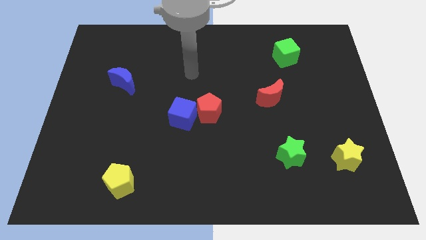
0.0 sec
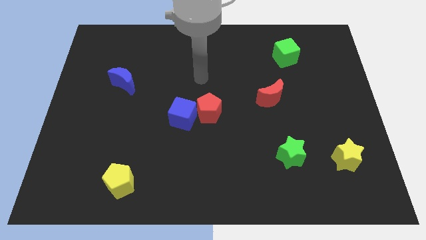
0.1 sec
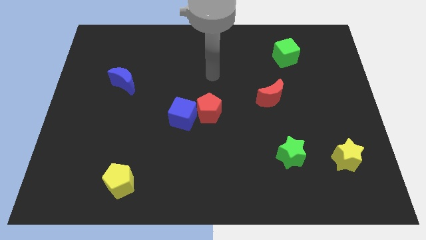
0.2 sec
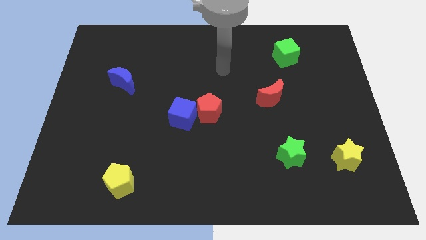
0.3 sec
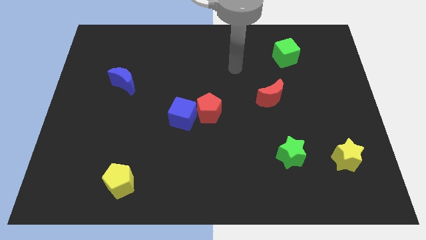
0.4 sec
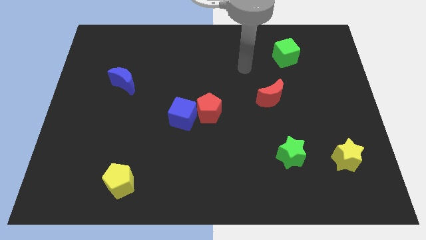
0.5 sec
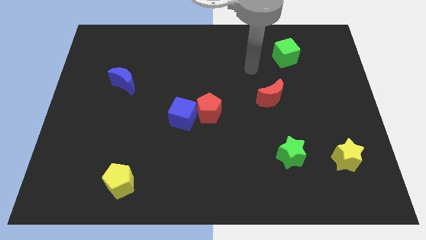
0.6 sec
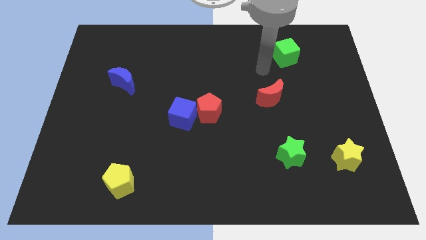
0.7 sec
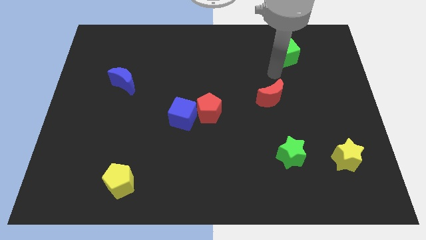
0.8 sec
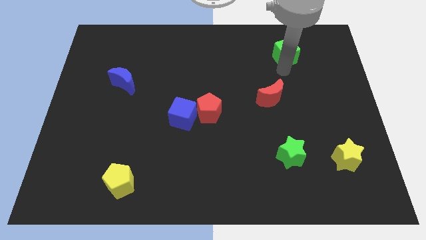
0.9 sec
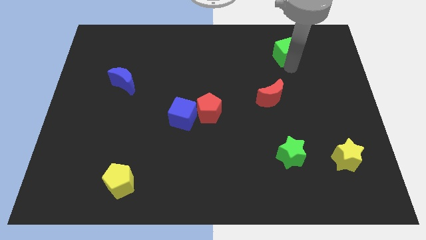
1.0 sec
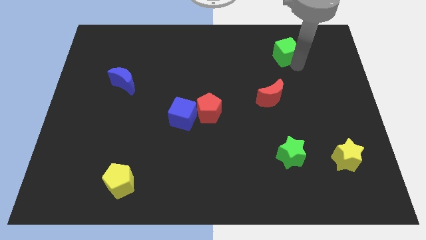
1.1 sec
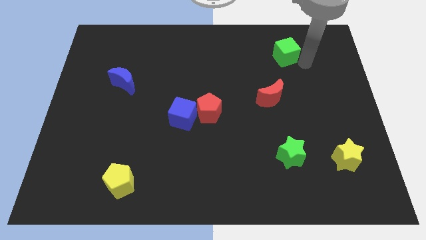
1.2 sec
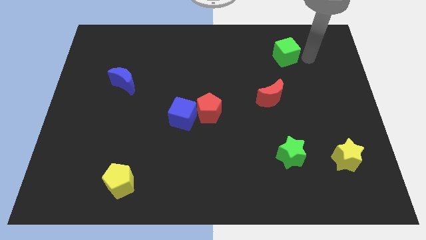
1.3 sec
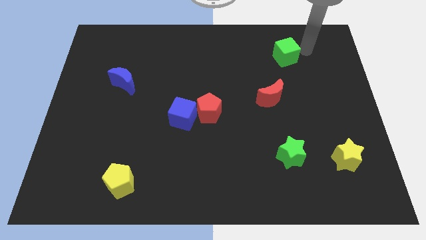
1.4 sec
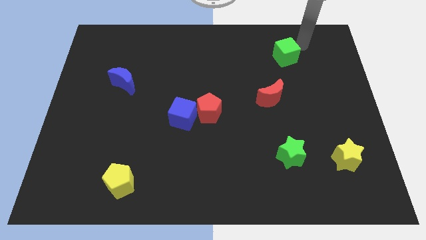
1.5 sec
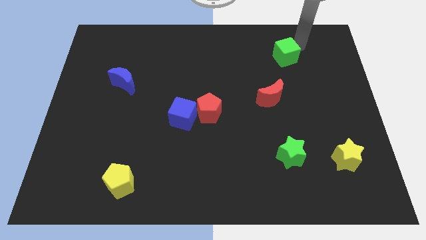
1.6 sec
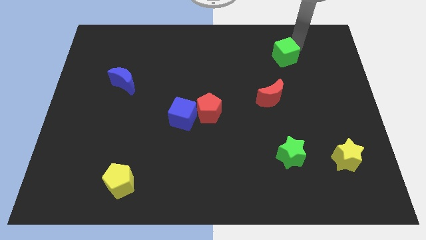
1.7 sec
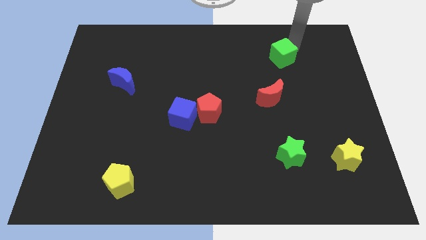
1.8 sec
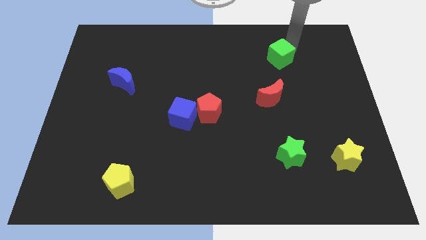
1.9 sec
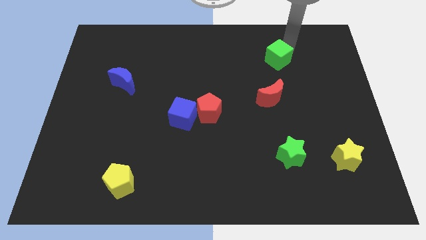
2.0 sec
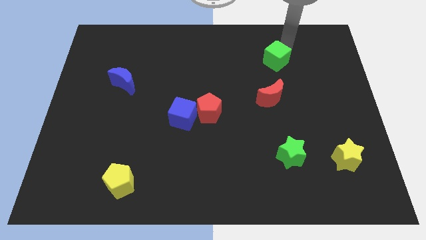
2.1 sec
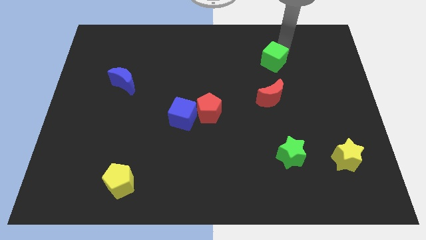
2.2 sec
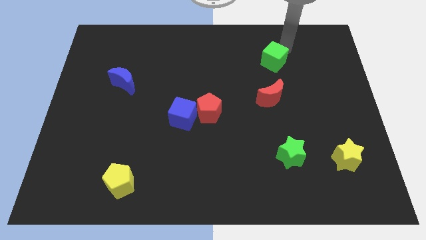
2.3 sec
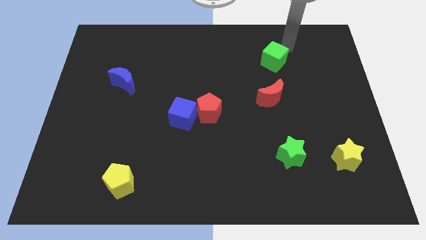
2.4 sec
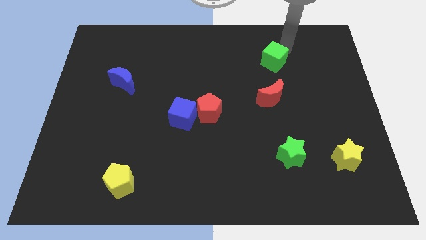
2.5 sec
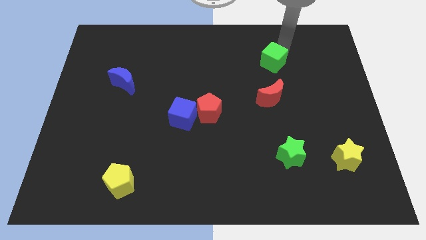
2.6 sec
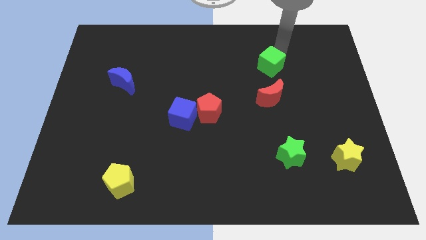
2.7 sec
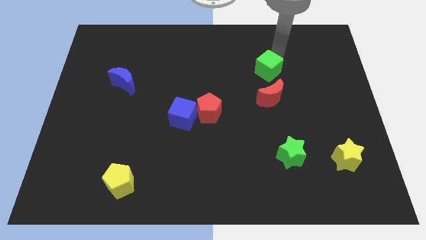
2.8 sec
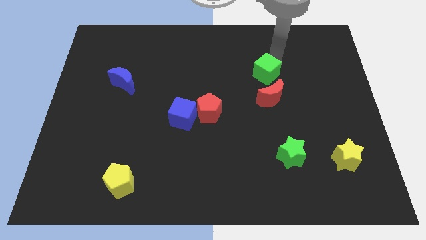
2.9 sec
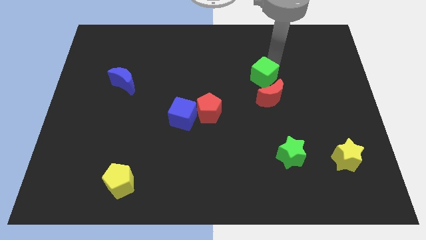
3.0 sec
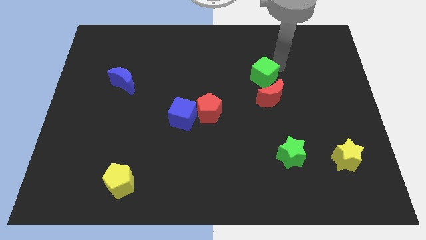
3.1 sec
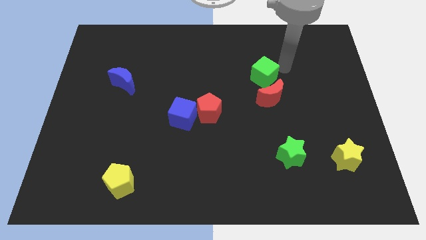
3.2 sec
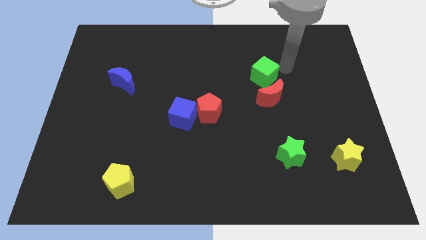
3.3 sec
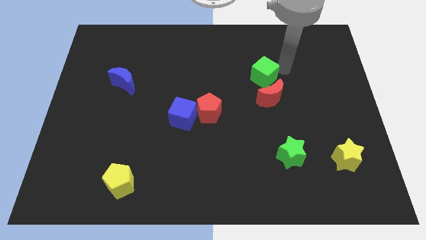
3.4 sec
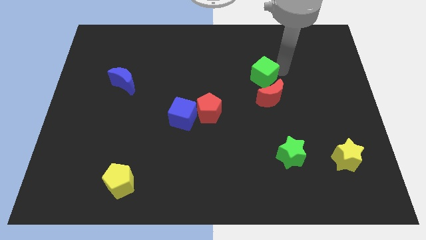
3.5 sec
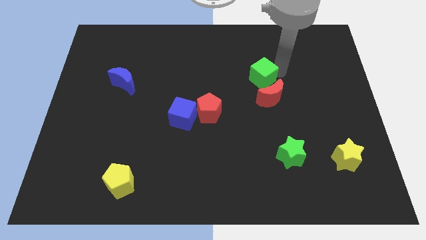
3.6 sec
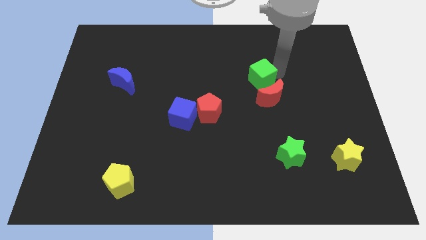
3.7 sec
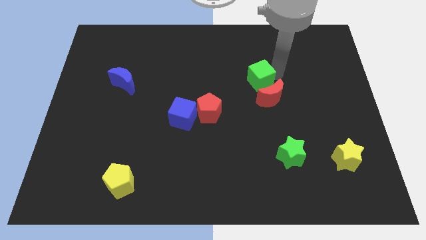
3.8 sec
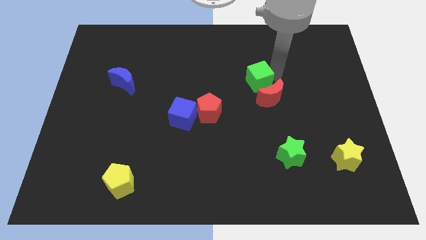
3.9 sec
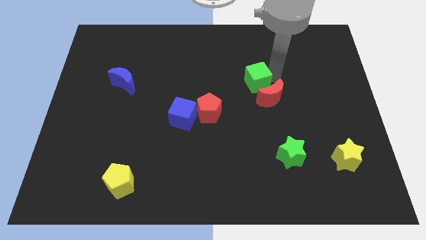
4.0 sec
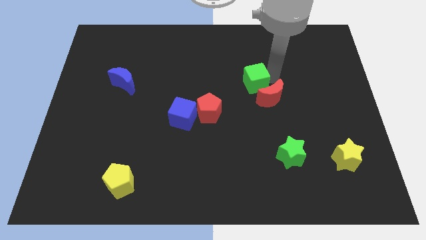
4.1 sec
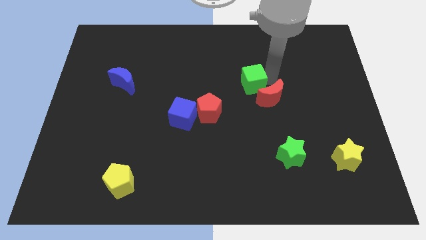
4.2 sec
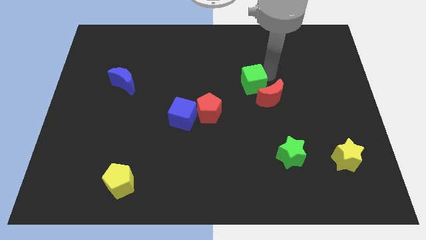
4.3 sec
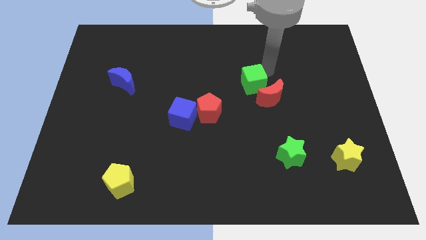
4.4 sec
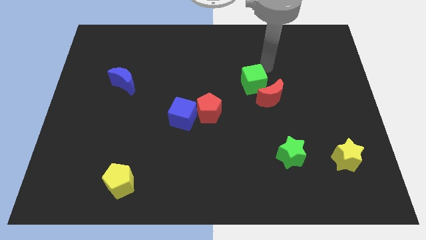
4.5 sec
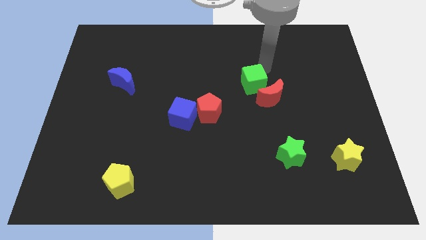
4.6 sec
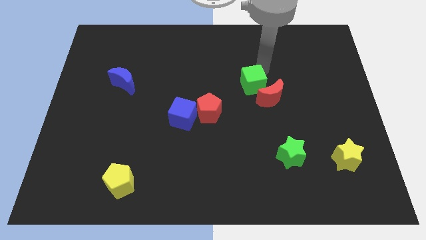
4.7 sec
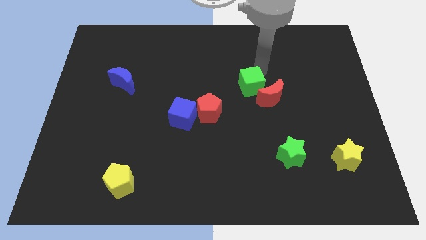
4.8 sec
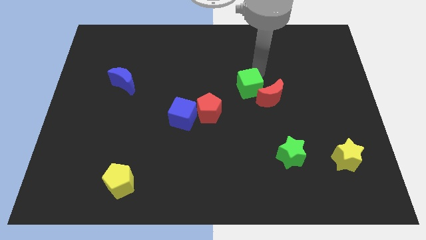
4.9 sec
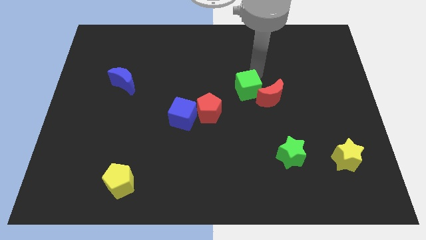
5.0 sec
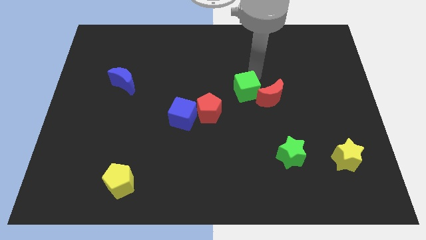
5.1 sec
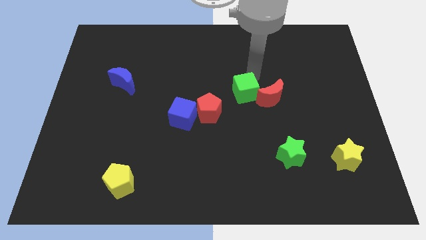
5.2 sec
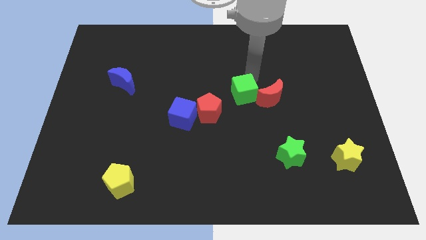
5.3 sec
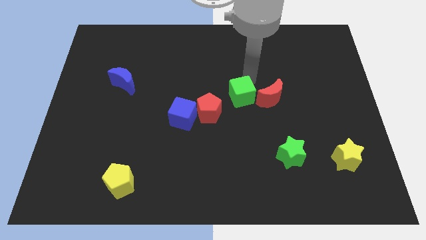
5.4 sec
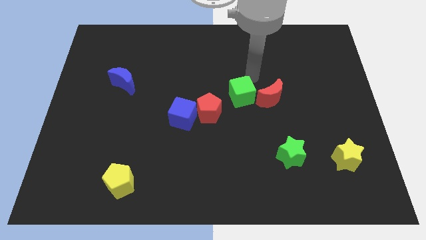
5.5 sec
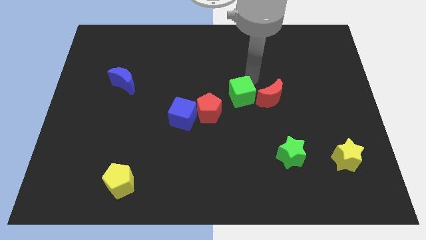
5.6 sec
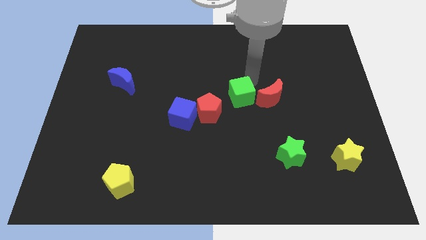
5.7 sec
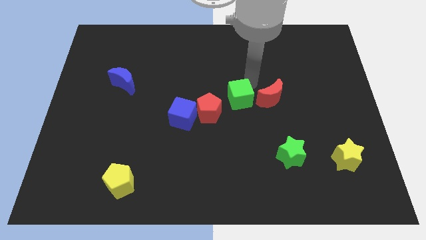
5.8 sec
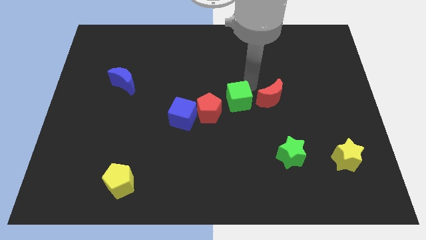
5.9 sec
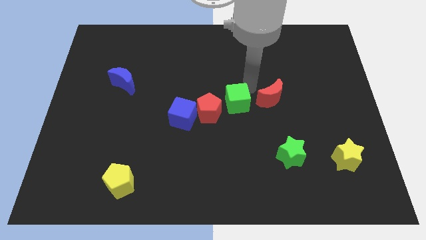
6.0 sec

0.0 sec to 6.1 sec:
slide the green cube right of the blue cube

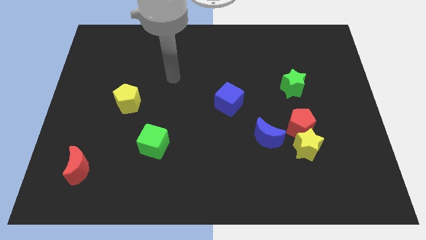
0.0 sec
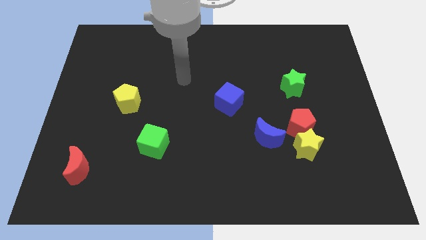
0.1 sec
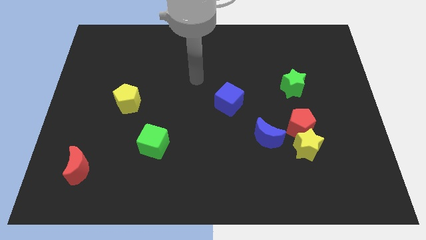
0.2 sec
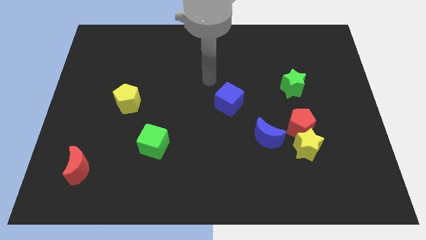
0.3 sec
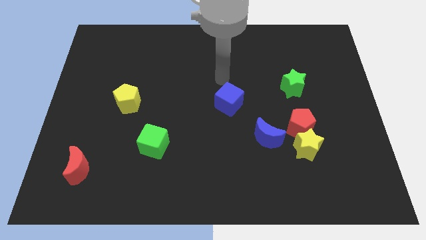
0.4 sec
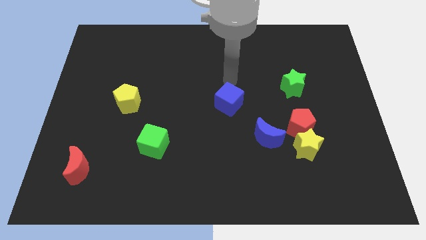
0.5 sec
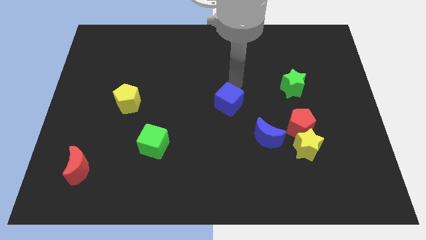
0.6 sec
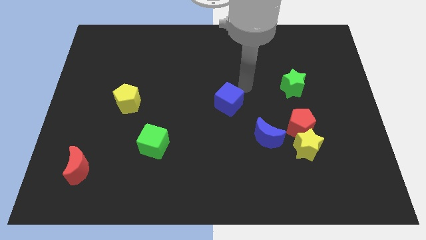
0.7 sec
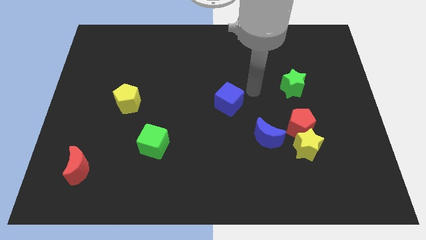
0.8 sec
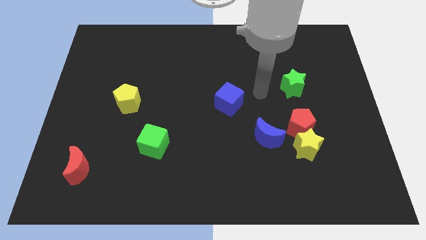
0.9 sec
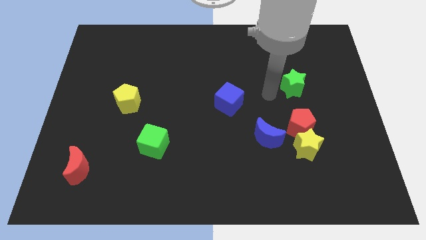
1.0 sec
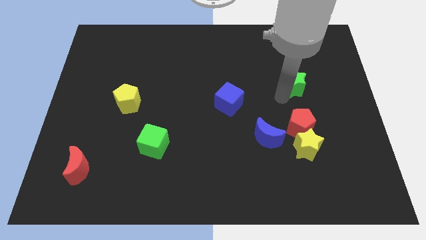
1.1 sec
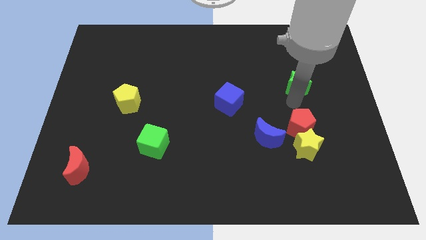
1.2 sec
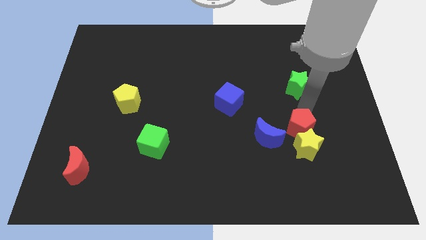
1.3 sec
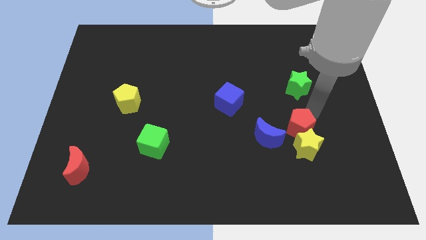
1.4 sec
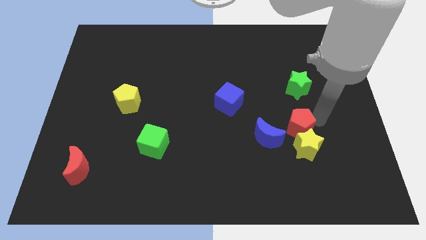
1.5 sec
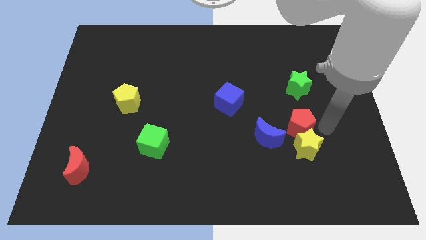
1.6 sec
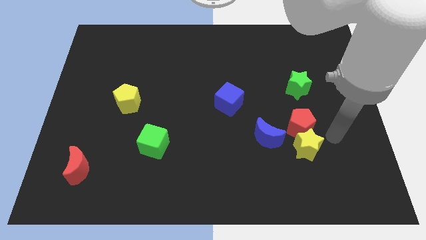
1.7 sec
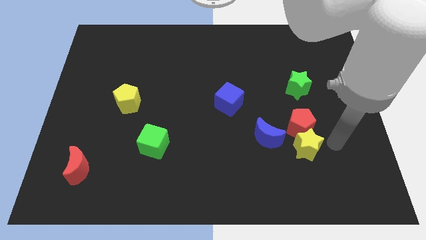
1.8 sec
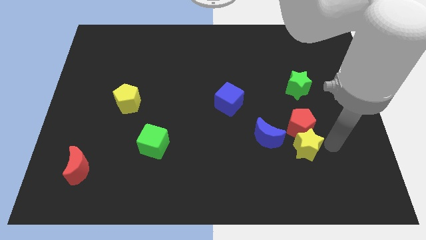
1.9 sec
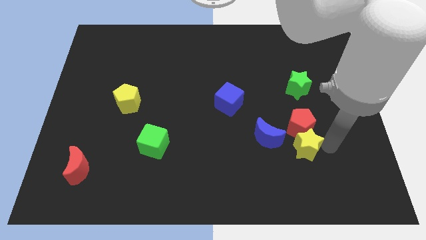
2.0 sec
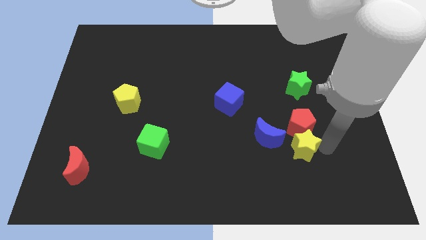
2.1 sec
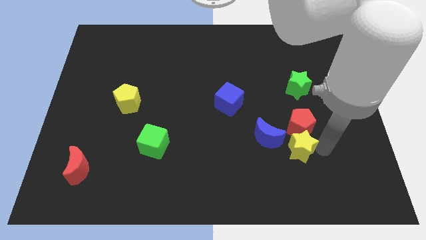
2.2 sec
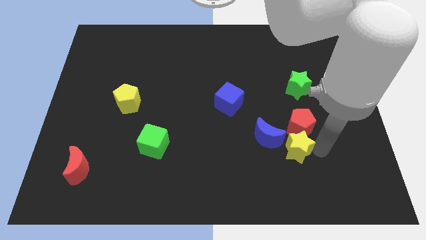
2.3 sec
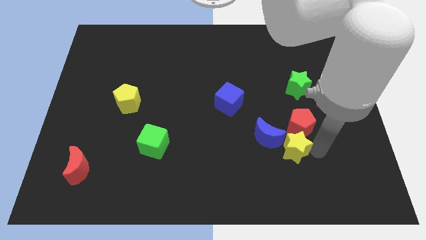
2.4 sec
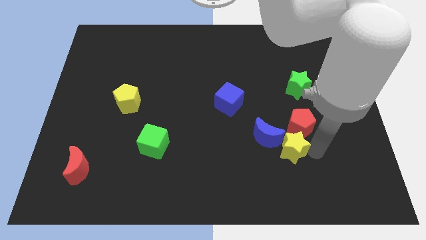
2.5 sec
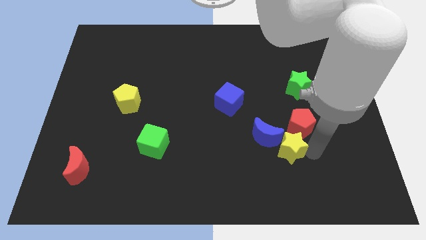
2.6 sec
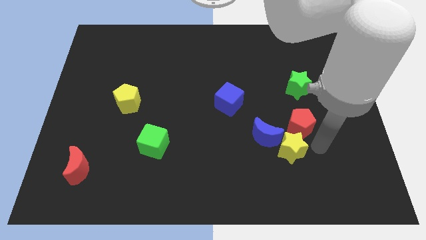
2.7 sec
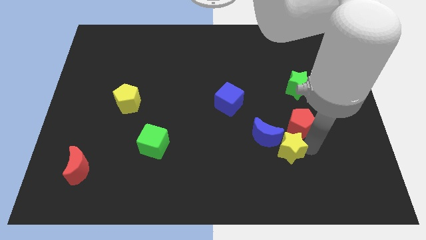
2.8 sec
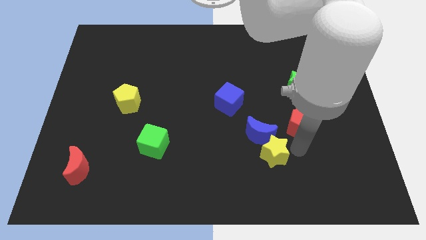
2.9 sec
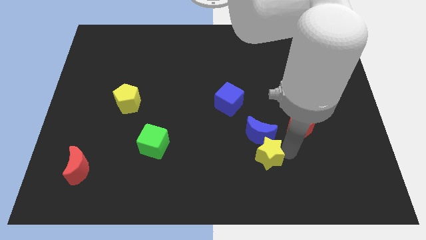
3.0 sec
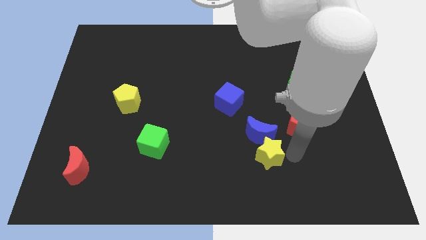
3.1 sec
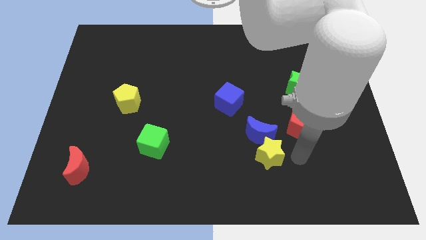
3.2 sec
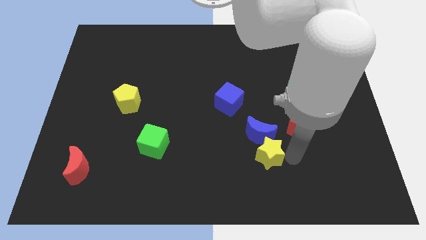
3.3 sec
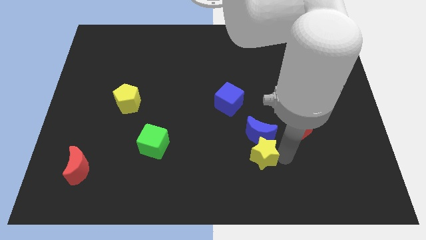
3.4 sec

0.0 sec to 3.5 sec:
move the yellow star diagonally down and to the left of the blue moon
